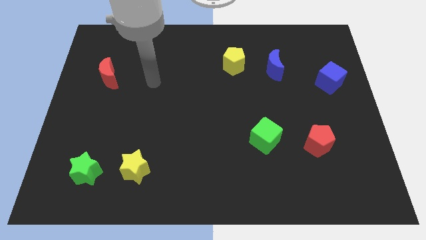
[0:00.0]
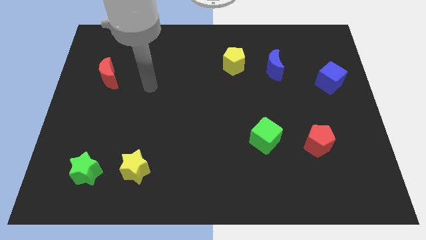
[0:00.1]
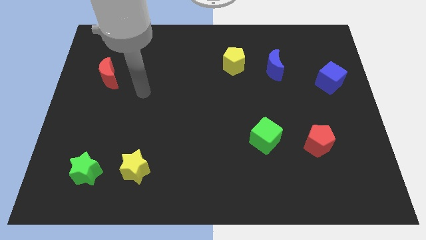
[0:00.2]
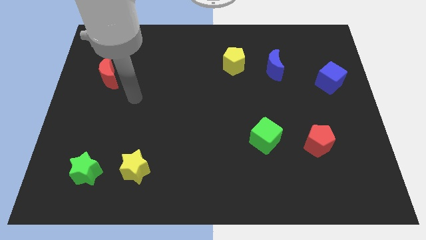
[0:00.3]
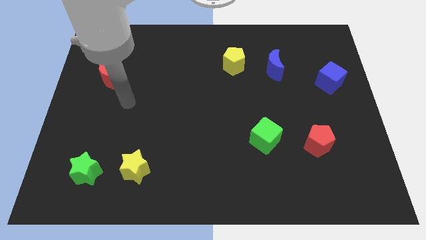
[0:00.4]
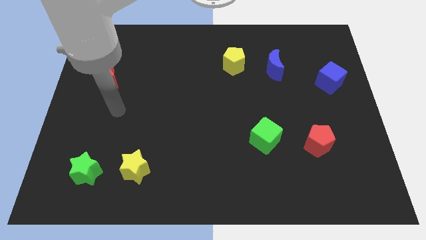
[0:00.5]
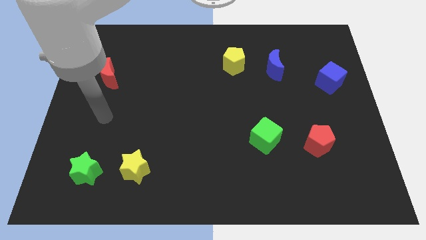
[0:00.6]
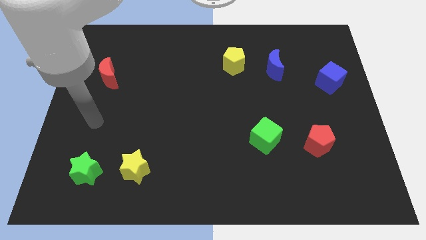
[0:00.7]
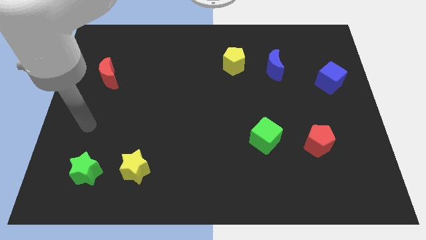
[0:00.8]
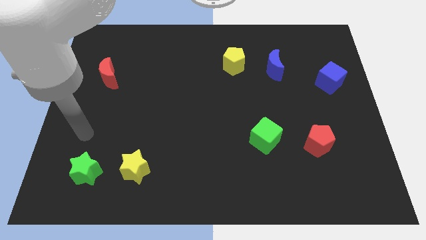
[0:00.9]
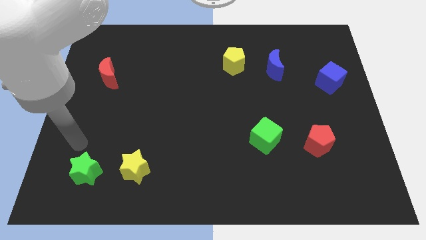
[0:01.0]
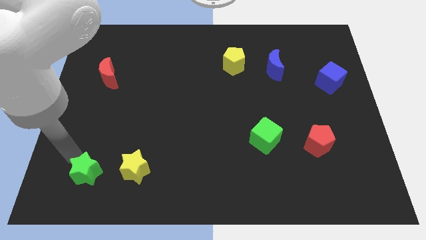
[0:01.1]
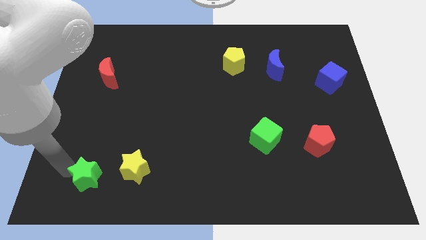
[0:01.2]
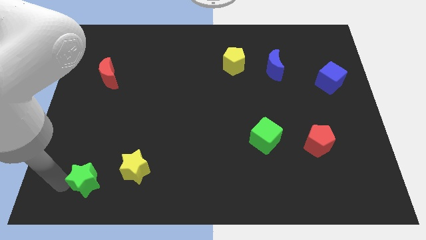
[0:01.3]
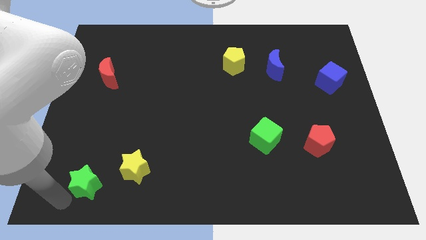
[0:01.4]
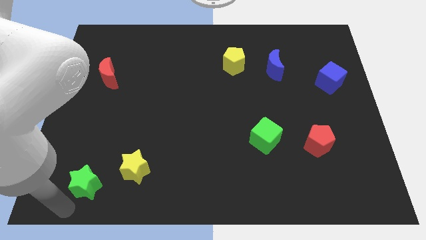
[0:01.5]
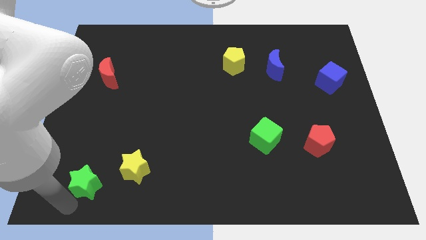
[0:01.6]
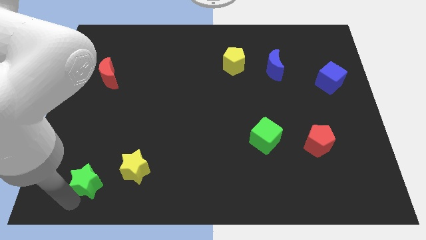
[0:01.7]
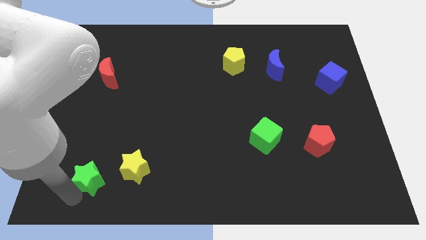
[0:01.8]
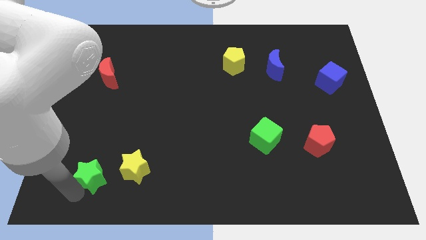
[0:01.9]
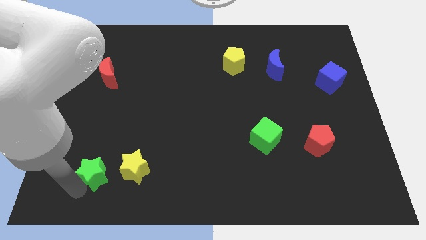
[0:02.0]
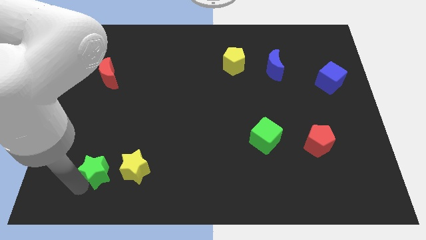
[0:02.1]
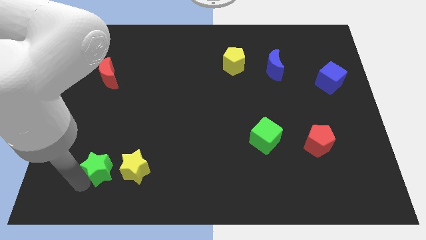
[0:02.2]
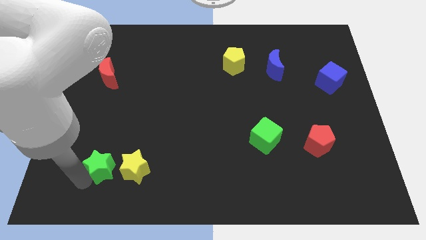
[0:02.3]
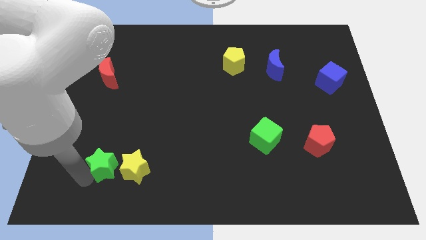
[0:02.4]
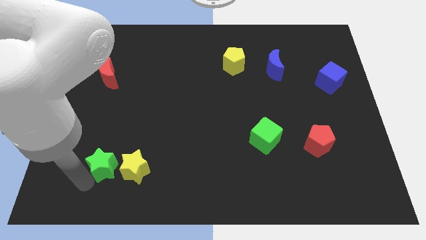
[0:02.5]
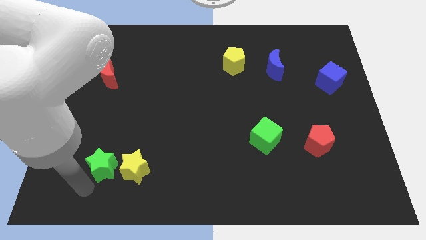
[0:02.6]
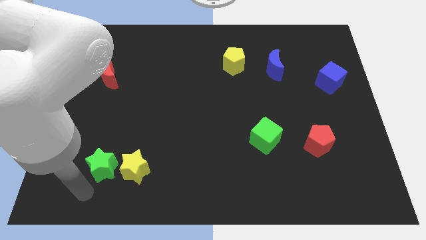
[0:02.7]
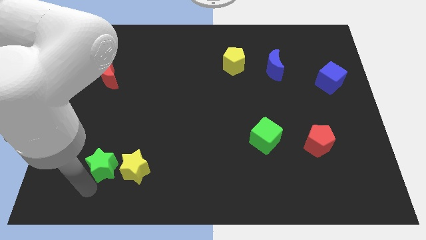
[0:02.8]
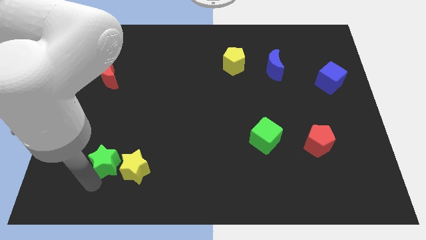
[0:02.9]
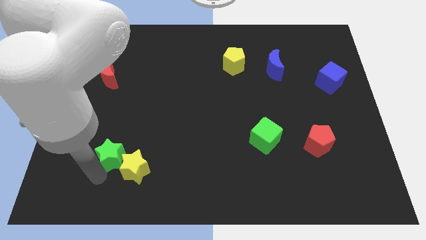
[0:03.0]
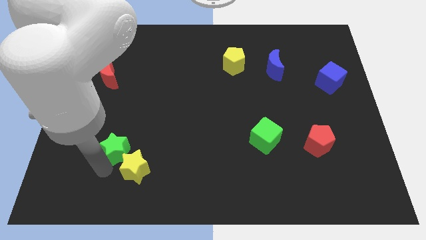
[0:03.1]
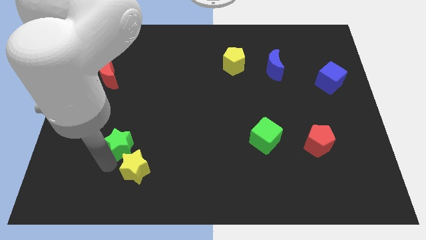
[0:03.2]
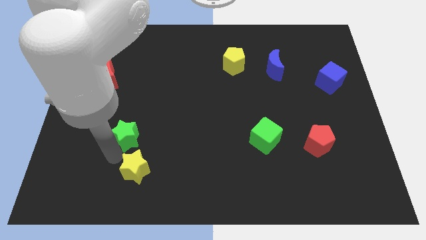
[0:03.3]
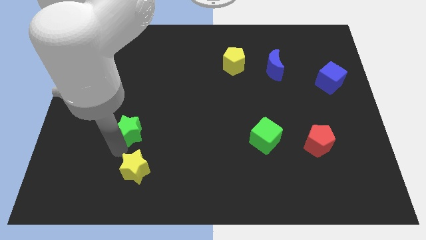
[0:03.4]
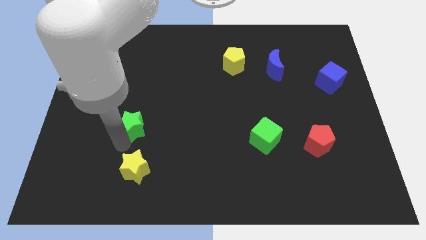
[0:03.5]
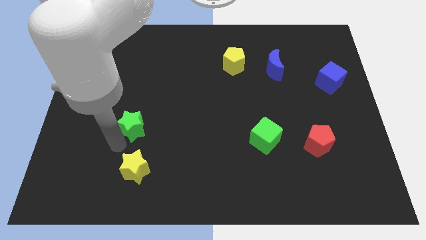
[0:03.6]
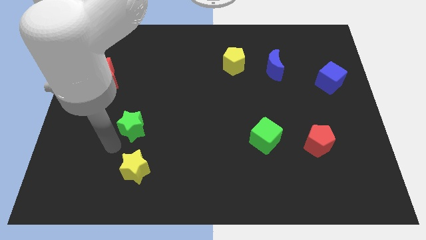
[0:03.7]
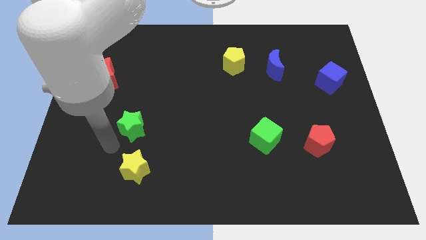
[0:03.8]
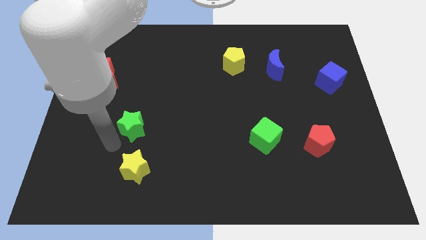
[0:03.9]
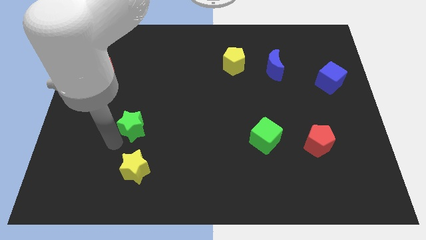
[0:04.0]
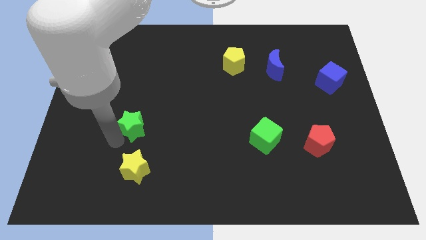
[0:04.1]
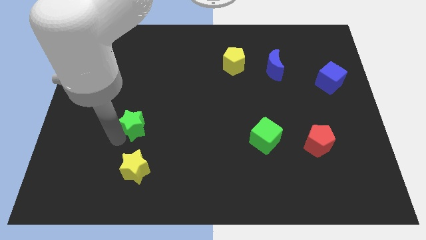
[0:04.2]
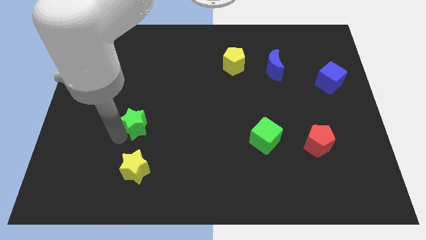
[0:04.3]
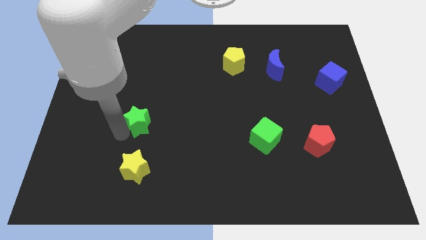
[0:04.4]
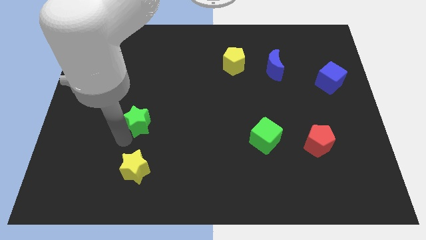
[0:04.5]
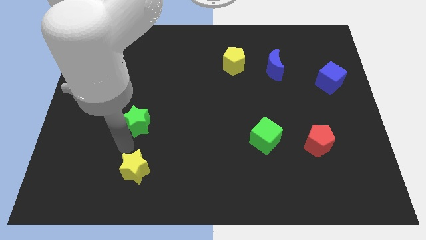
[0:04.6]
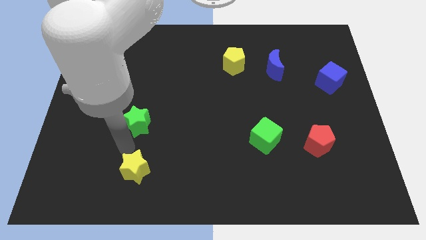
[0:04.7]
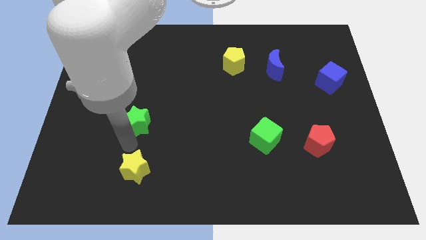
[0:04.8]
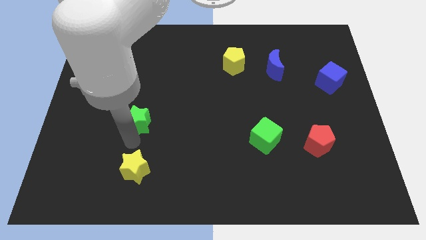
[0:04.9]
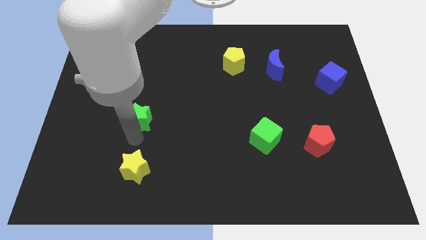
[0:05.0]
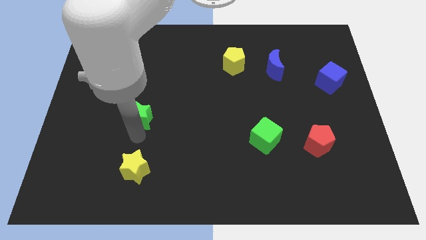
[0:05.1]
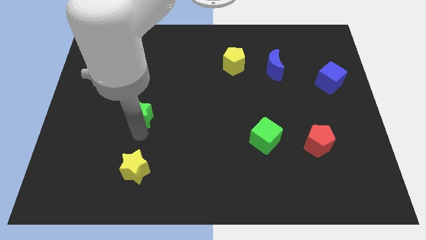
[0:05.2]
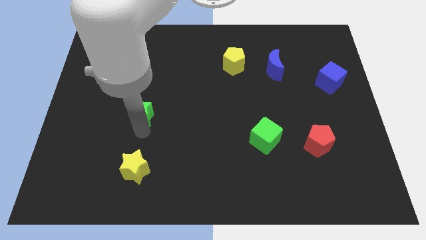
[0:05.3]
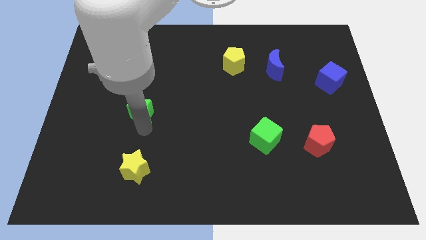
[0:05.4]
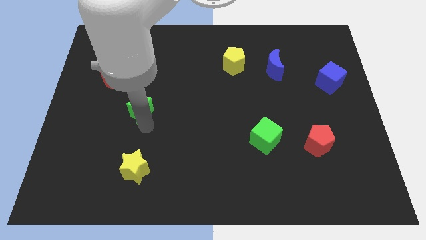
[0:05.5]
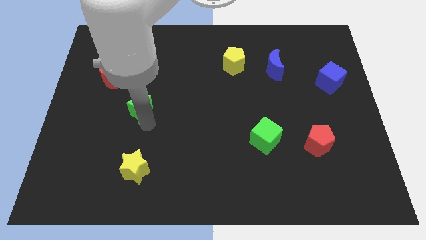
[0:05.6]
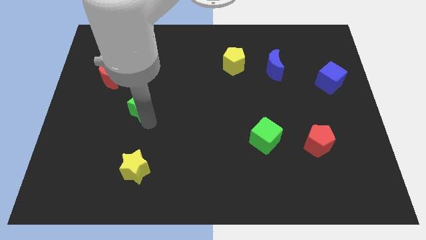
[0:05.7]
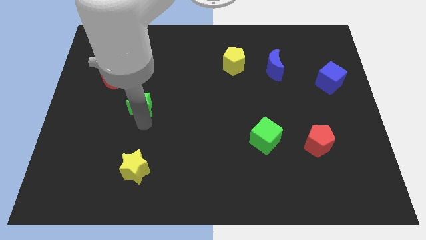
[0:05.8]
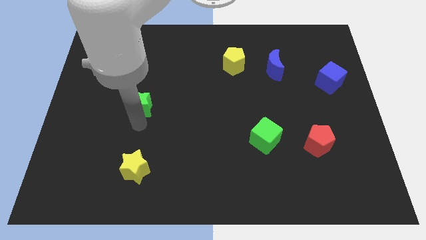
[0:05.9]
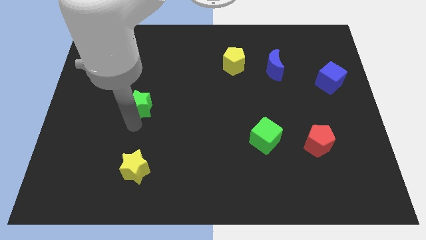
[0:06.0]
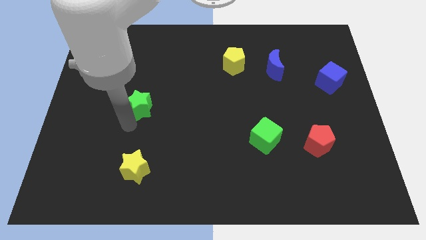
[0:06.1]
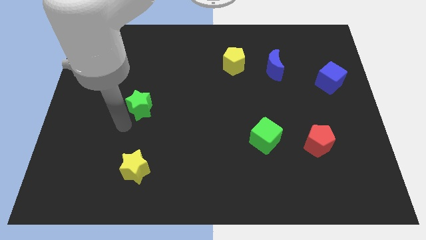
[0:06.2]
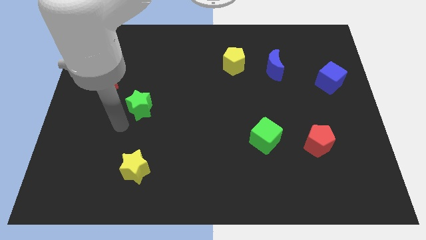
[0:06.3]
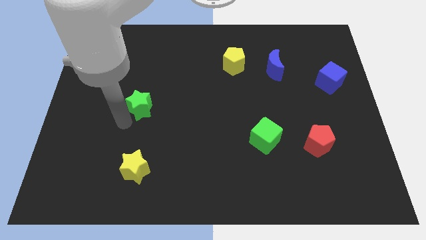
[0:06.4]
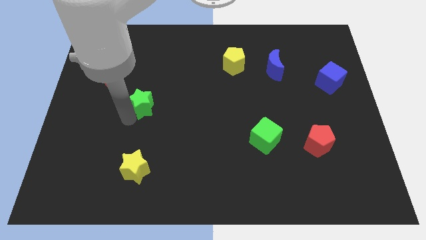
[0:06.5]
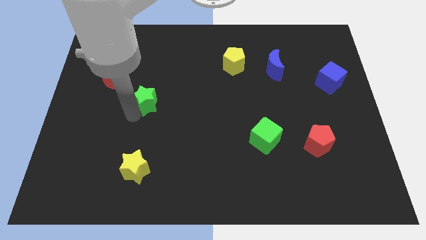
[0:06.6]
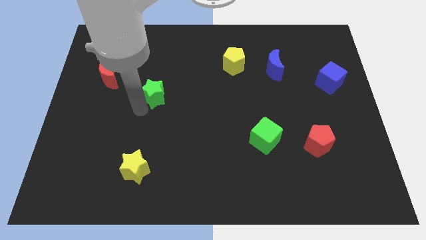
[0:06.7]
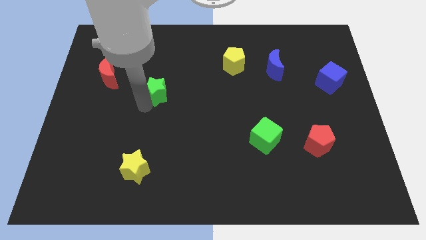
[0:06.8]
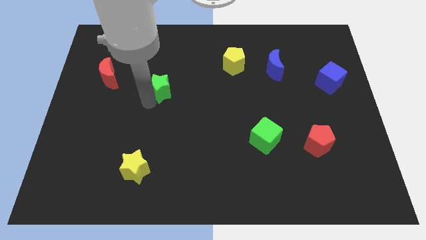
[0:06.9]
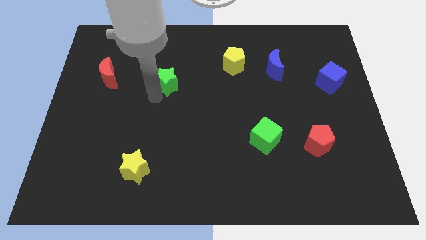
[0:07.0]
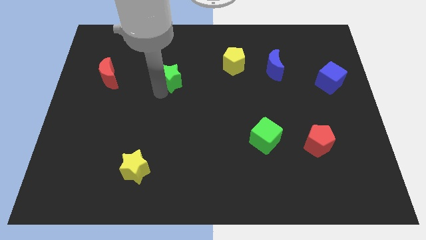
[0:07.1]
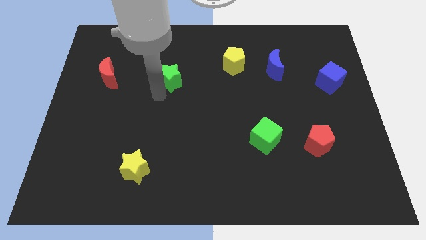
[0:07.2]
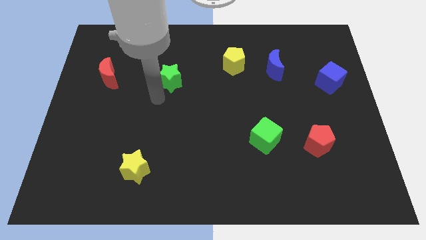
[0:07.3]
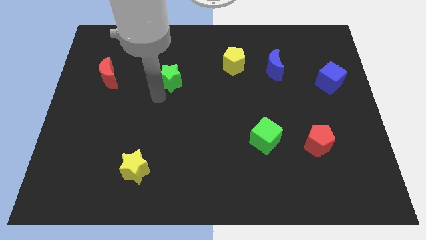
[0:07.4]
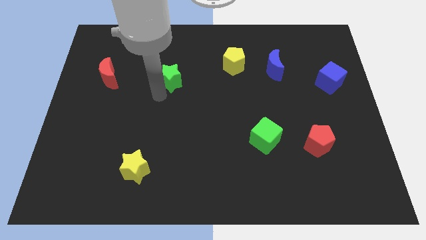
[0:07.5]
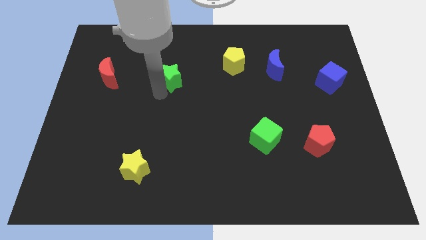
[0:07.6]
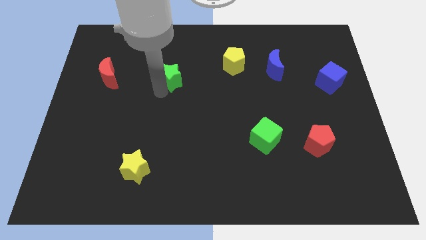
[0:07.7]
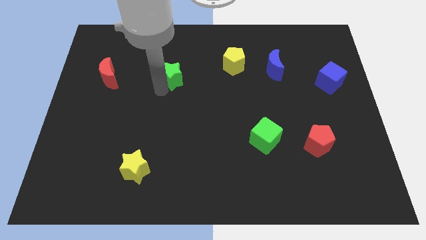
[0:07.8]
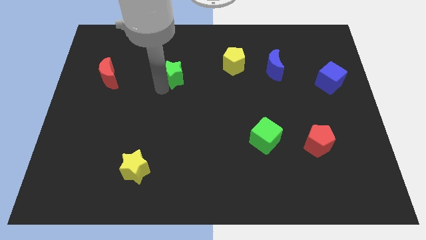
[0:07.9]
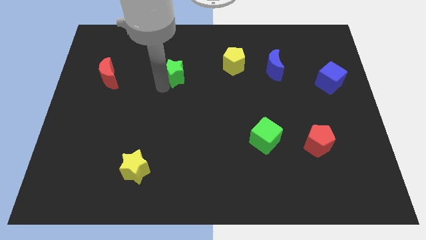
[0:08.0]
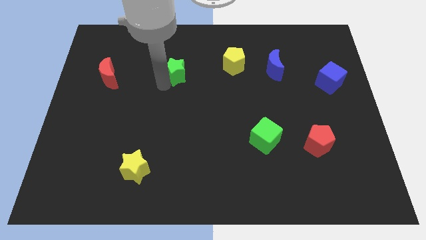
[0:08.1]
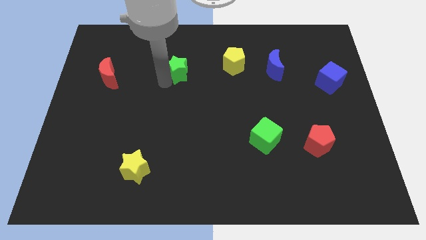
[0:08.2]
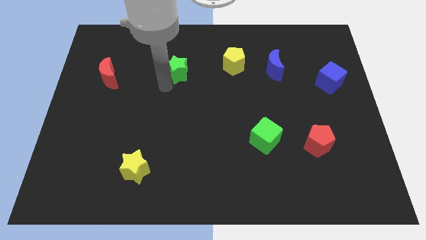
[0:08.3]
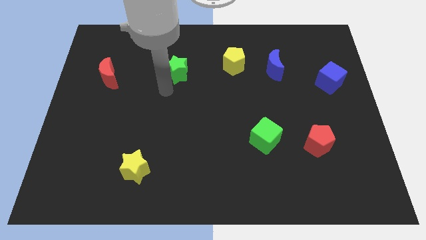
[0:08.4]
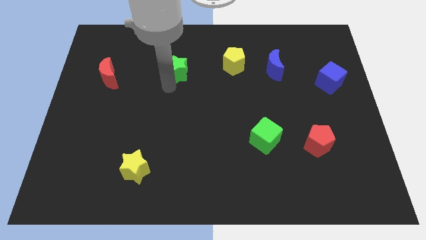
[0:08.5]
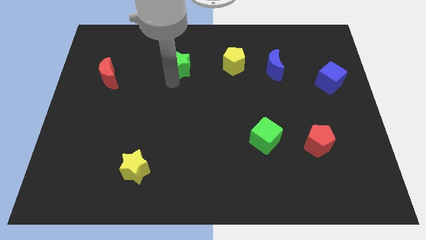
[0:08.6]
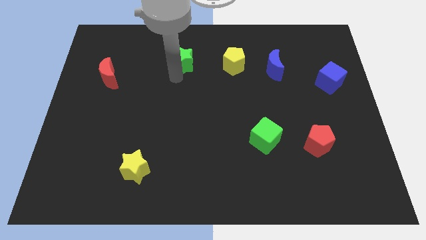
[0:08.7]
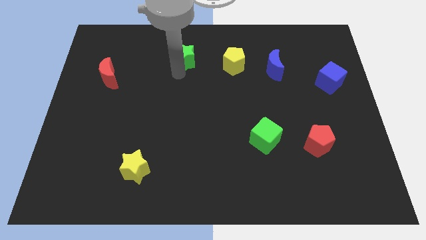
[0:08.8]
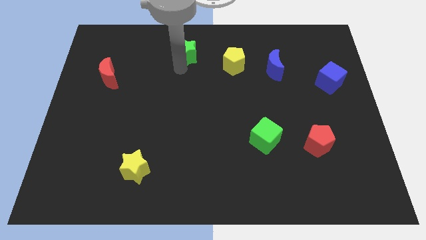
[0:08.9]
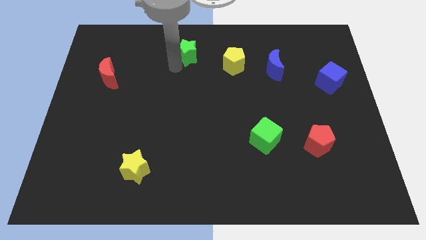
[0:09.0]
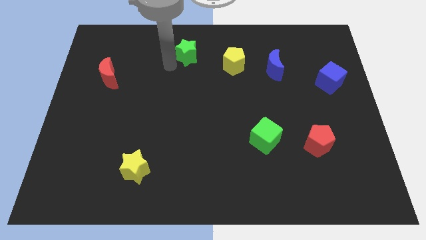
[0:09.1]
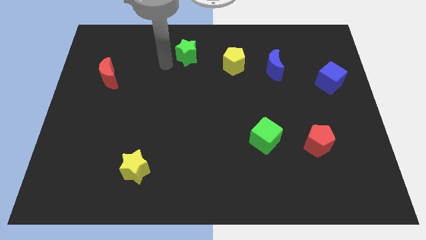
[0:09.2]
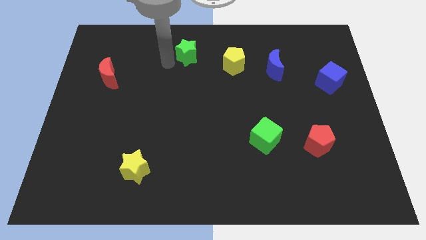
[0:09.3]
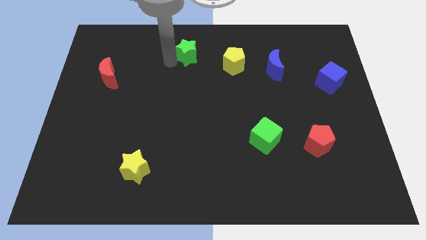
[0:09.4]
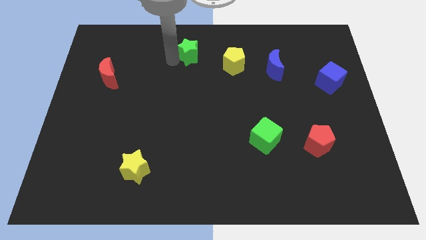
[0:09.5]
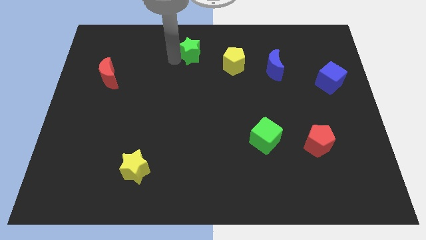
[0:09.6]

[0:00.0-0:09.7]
put the green star to the top
